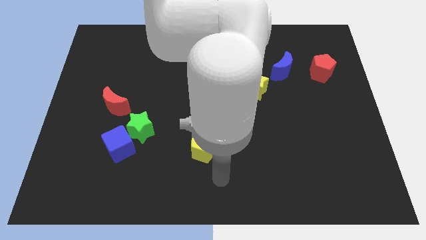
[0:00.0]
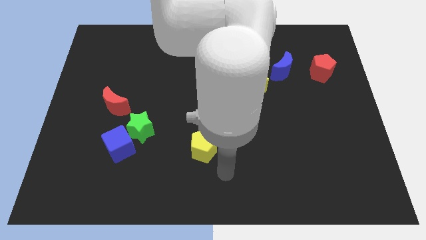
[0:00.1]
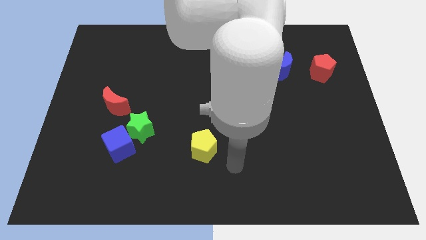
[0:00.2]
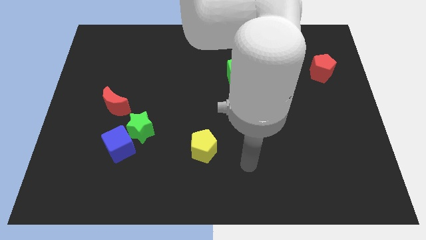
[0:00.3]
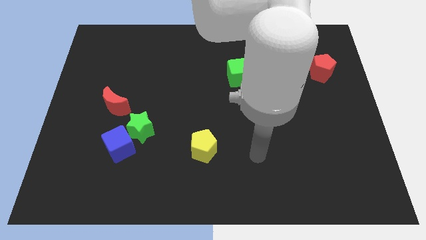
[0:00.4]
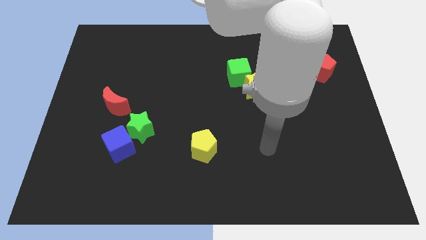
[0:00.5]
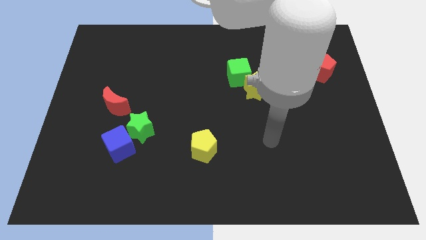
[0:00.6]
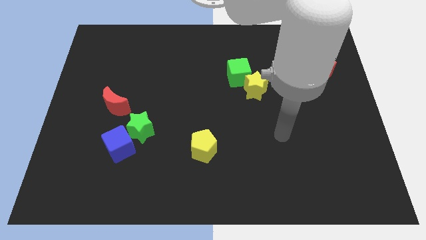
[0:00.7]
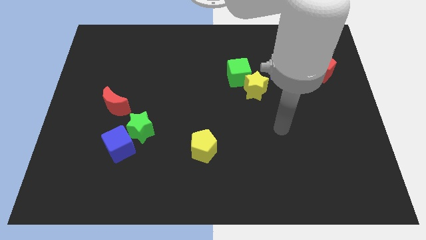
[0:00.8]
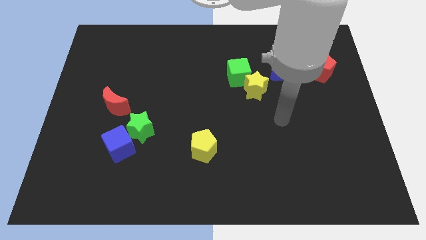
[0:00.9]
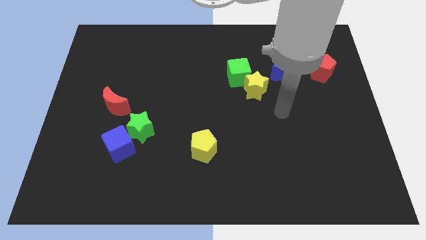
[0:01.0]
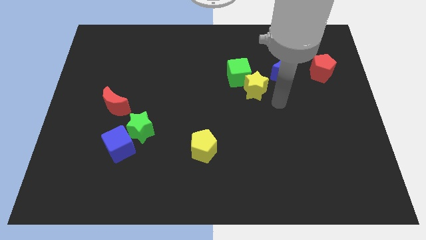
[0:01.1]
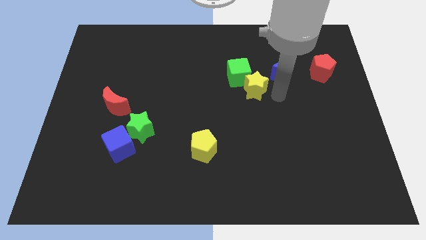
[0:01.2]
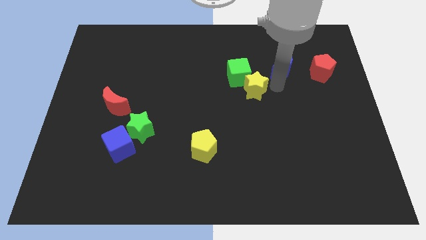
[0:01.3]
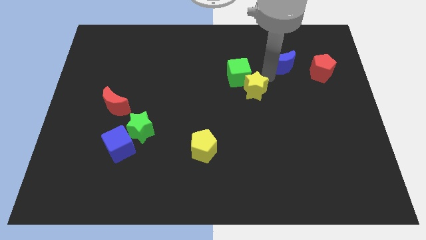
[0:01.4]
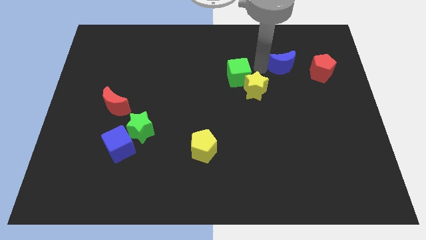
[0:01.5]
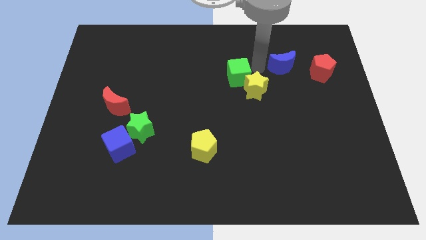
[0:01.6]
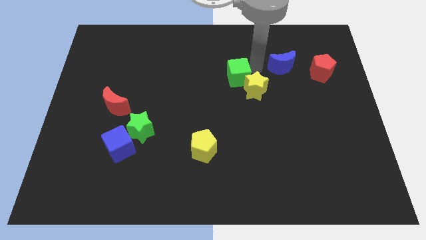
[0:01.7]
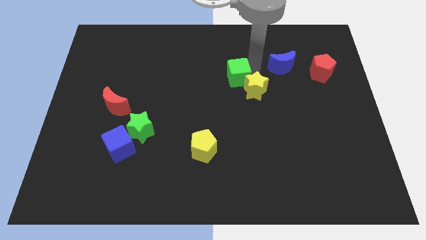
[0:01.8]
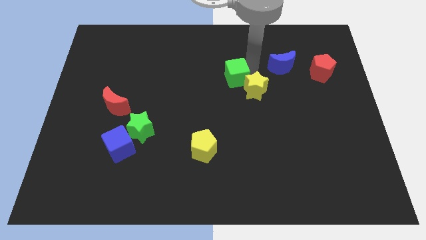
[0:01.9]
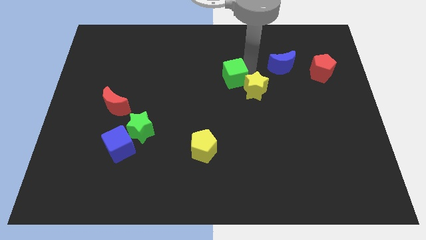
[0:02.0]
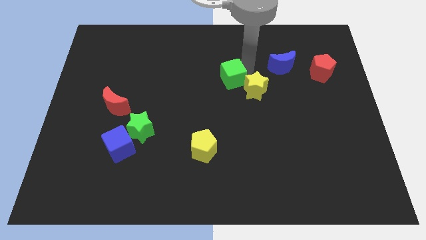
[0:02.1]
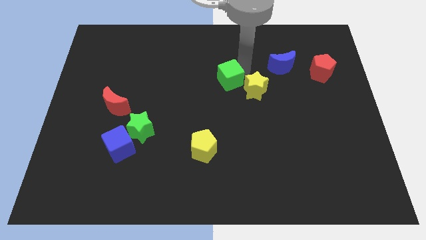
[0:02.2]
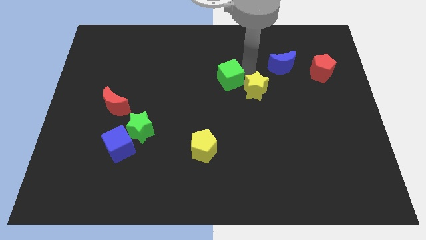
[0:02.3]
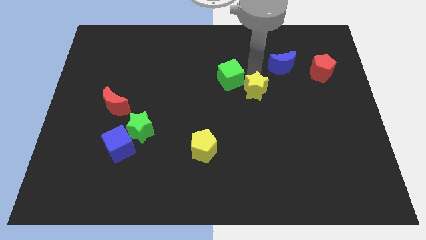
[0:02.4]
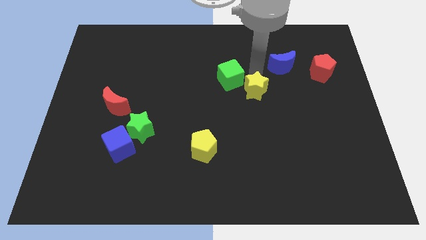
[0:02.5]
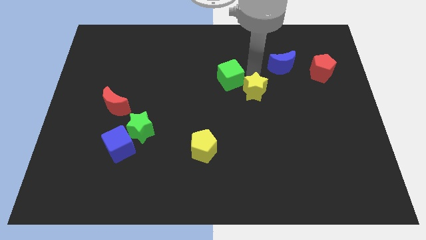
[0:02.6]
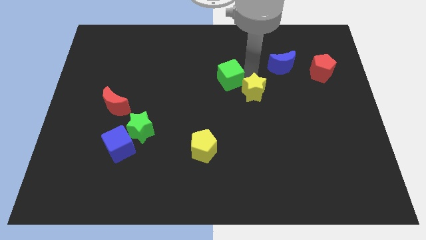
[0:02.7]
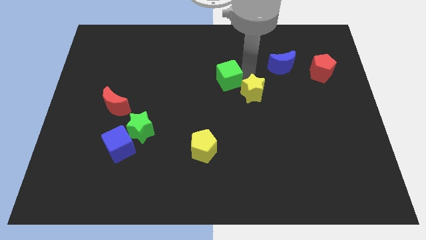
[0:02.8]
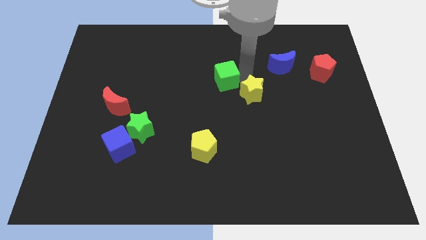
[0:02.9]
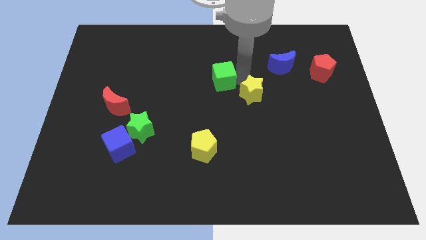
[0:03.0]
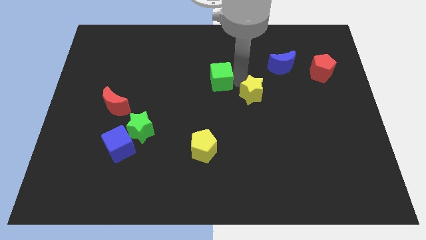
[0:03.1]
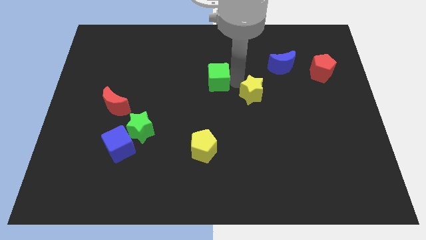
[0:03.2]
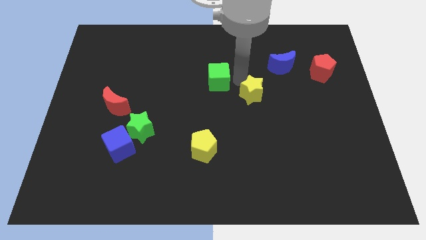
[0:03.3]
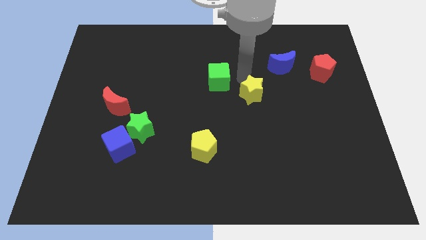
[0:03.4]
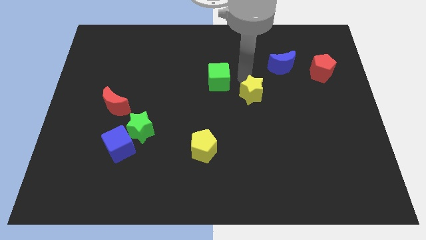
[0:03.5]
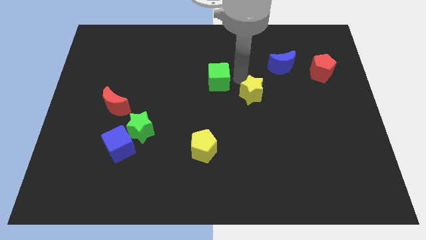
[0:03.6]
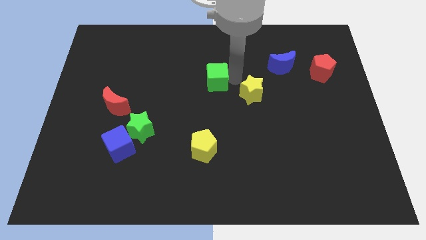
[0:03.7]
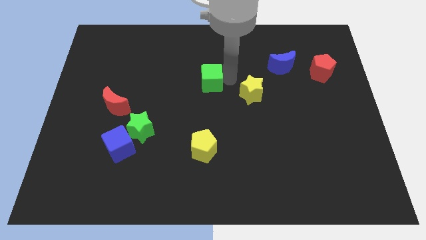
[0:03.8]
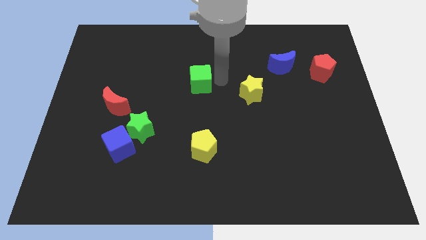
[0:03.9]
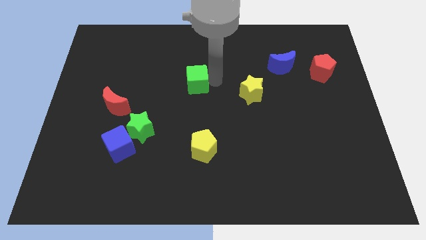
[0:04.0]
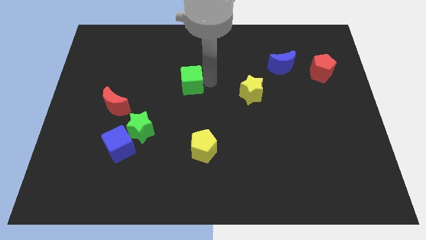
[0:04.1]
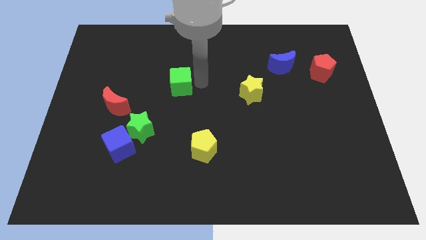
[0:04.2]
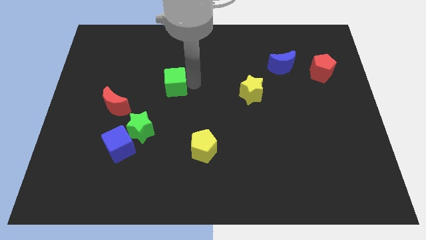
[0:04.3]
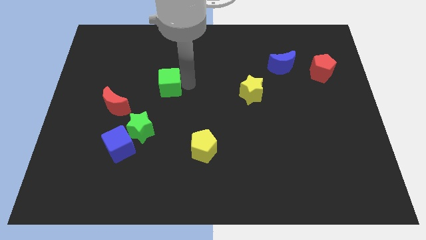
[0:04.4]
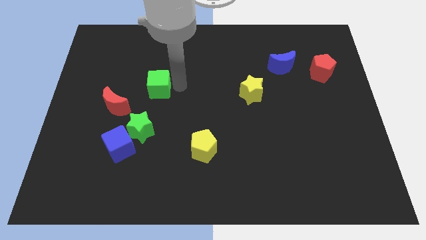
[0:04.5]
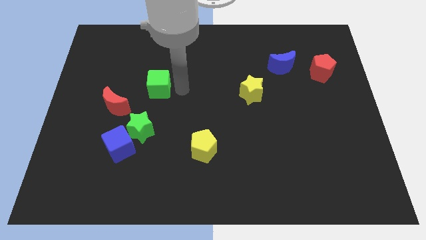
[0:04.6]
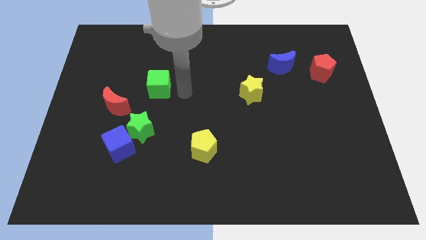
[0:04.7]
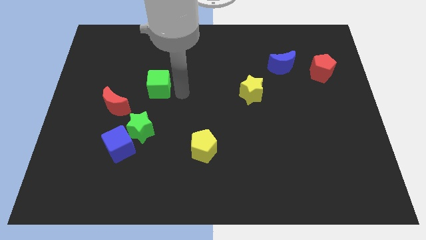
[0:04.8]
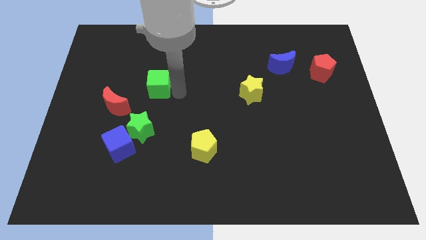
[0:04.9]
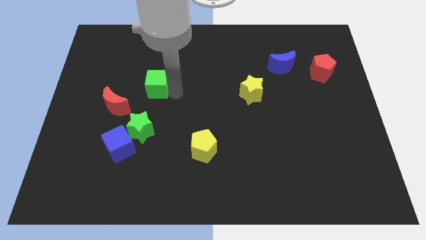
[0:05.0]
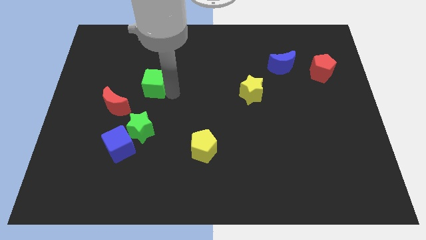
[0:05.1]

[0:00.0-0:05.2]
slide the green cube to the left

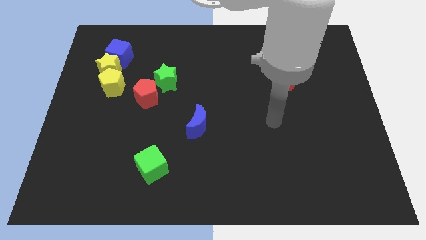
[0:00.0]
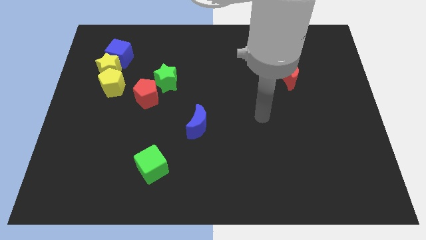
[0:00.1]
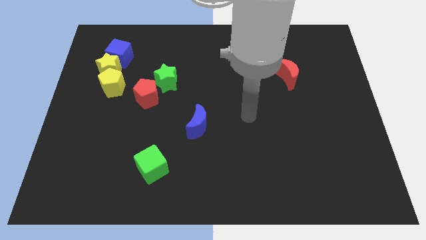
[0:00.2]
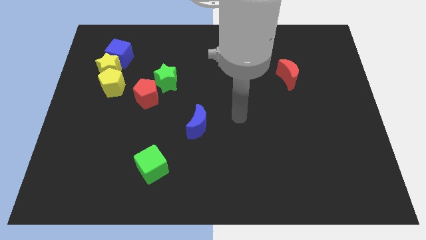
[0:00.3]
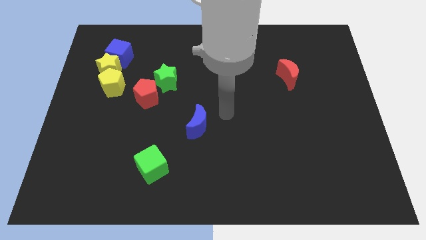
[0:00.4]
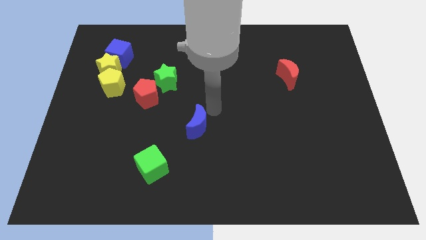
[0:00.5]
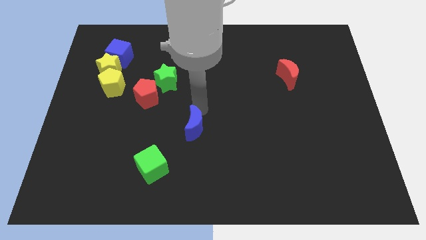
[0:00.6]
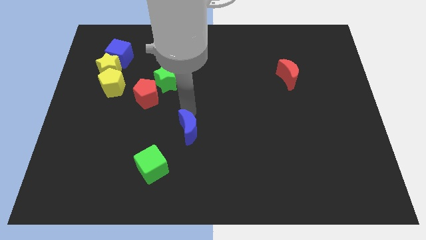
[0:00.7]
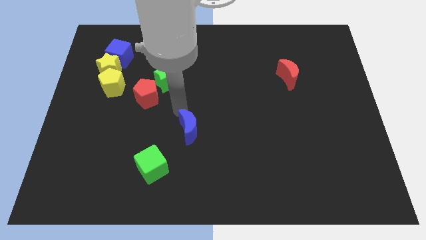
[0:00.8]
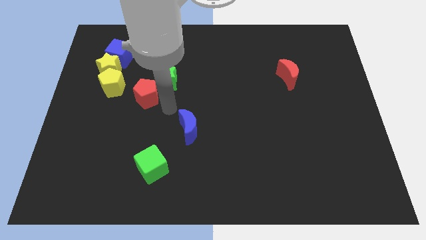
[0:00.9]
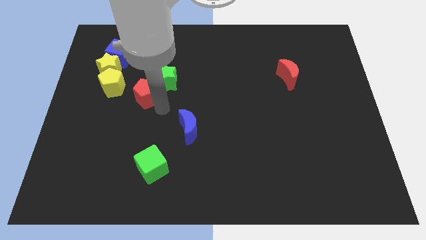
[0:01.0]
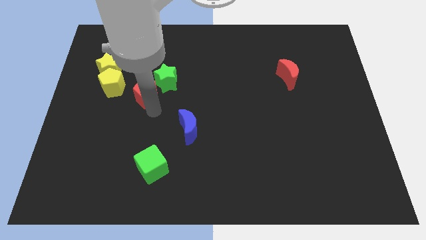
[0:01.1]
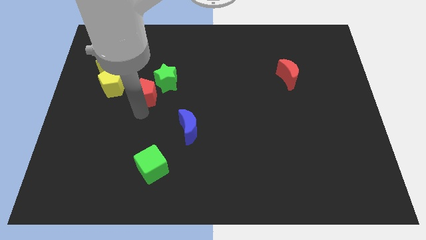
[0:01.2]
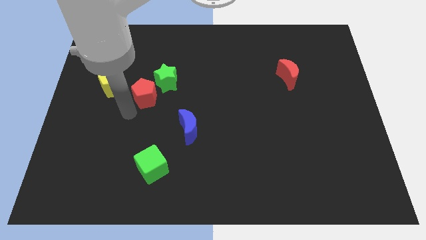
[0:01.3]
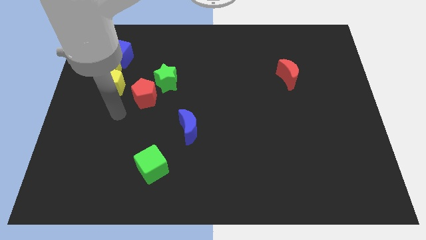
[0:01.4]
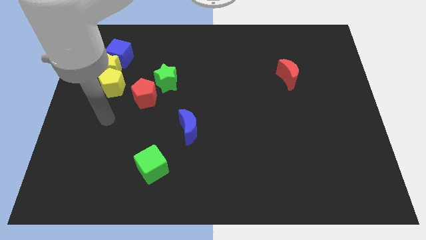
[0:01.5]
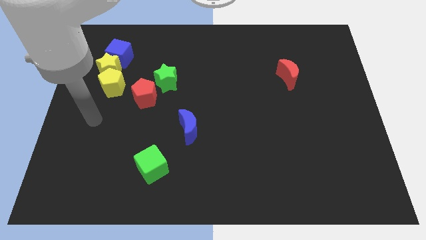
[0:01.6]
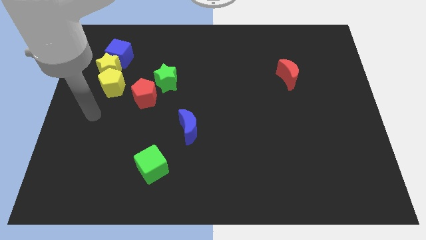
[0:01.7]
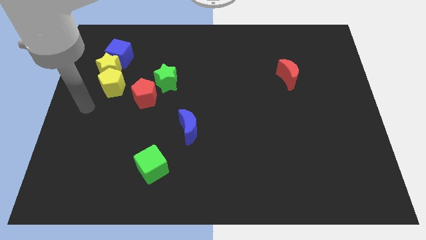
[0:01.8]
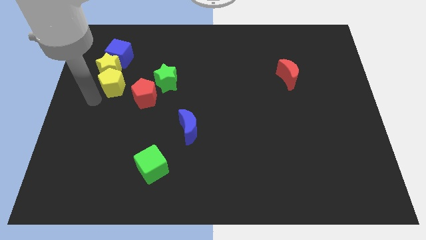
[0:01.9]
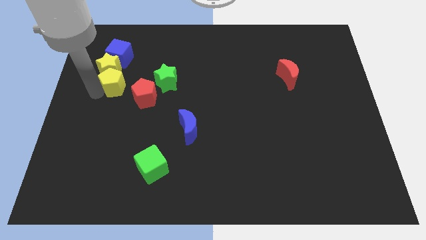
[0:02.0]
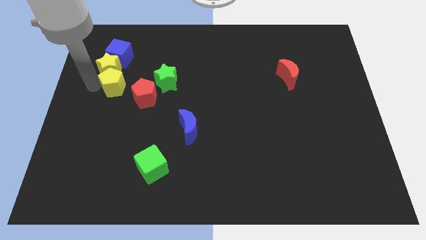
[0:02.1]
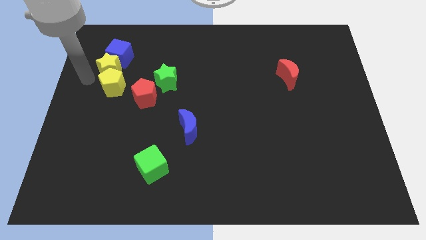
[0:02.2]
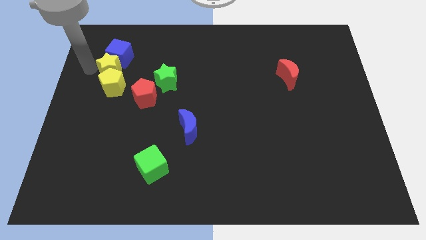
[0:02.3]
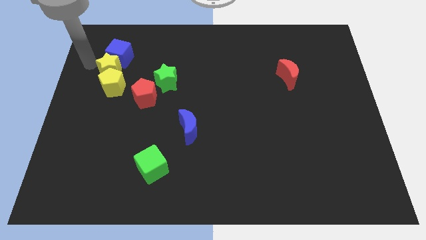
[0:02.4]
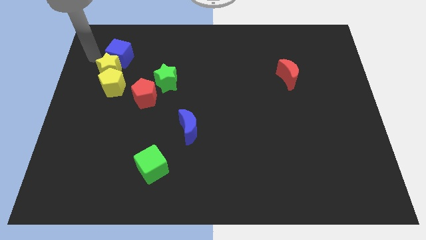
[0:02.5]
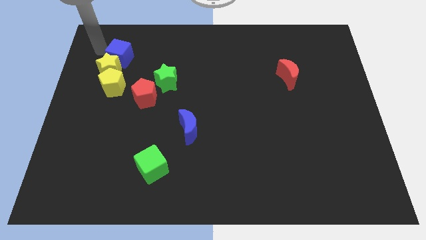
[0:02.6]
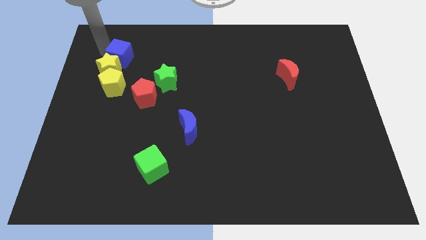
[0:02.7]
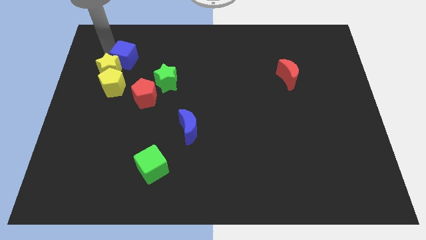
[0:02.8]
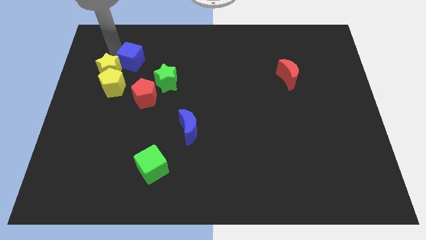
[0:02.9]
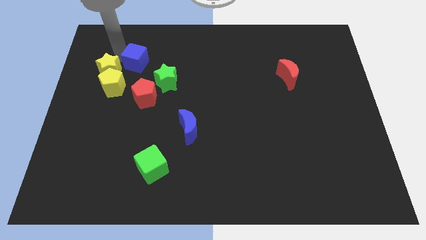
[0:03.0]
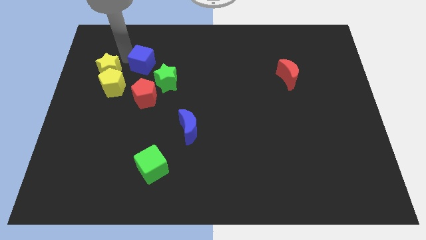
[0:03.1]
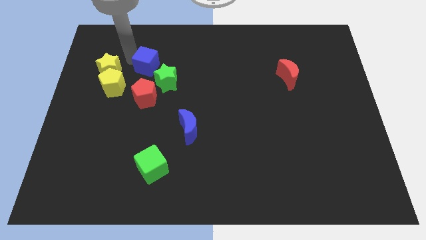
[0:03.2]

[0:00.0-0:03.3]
slightly push the blue cube down and right diagonally
